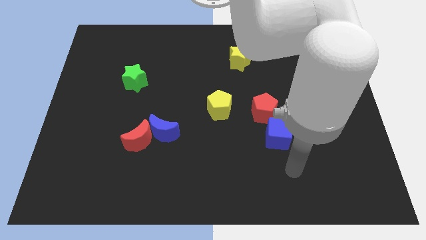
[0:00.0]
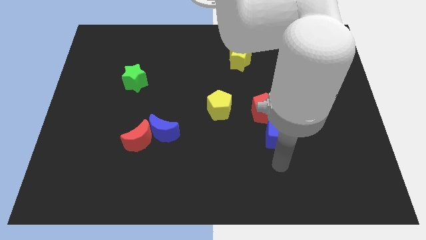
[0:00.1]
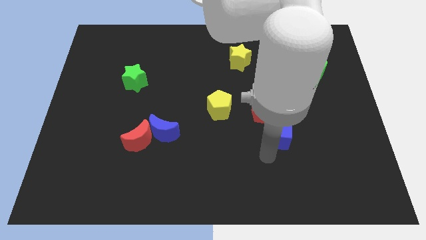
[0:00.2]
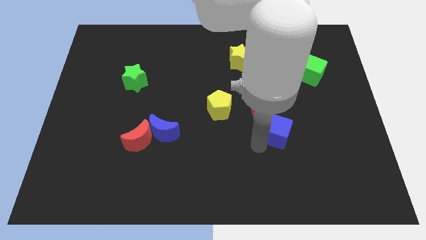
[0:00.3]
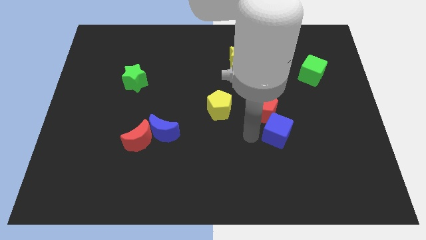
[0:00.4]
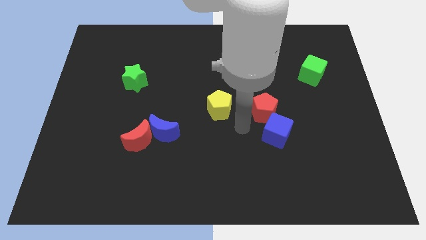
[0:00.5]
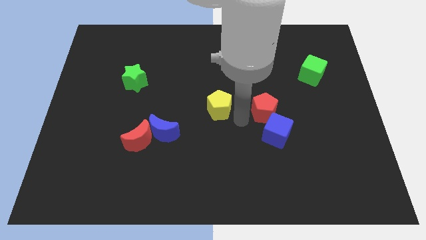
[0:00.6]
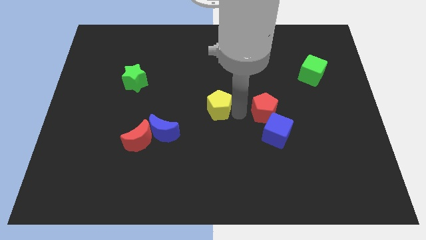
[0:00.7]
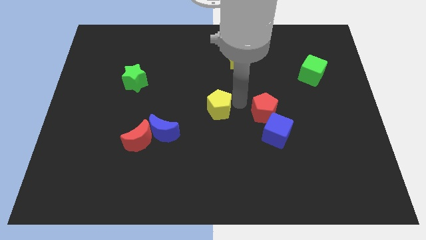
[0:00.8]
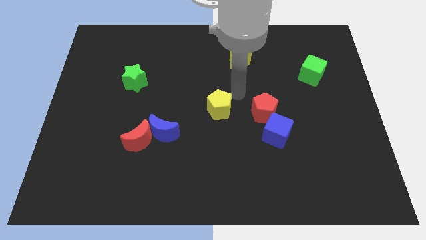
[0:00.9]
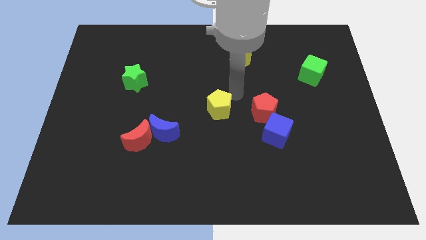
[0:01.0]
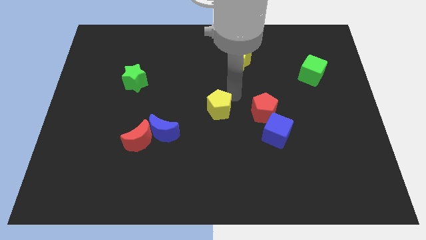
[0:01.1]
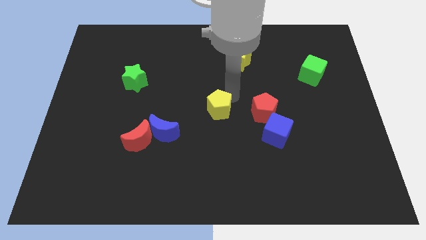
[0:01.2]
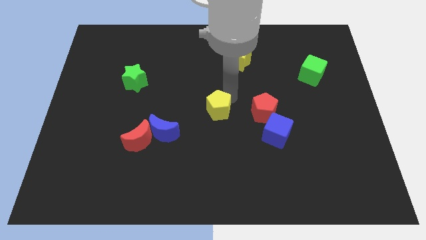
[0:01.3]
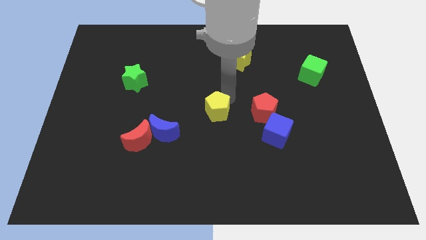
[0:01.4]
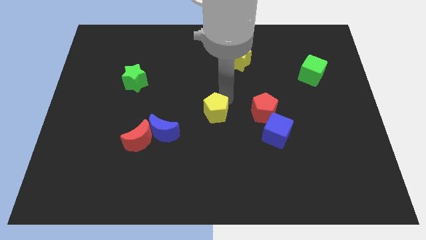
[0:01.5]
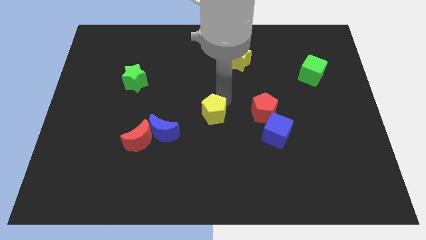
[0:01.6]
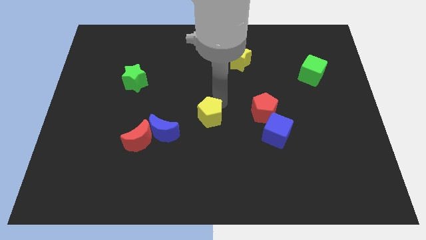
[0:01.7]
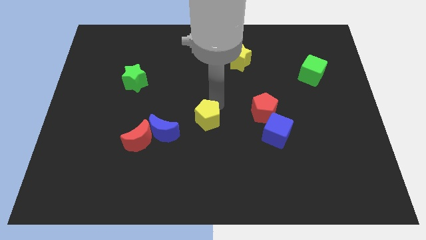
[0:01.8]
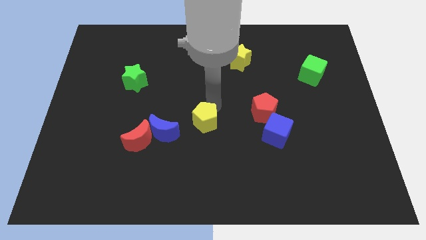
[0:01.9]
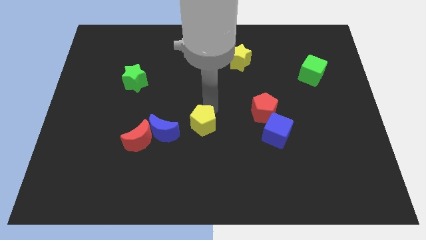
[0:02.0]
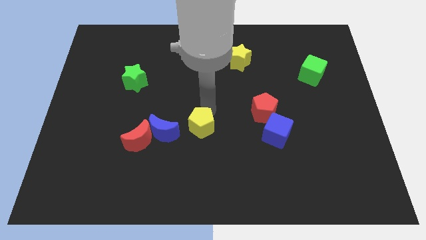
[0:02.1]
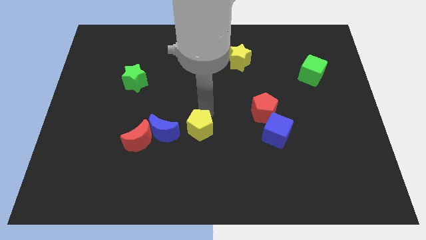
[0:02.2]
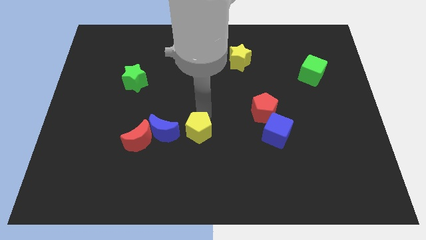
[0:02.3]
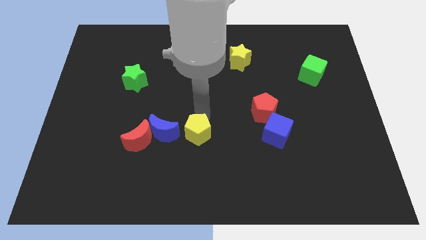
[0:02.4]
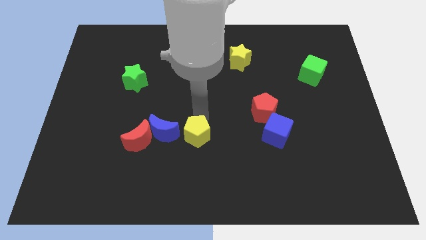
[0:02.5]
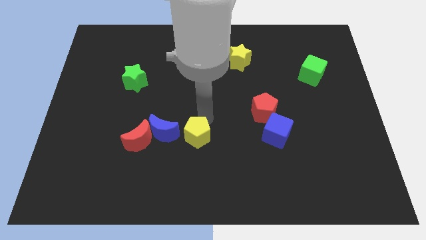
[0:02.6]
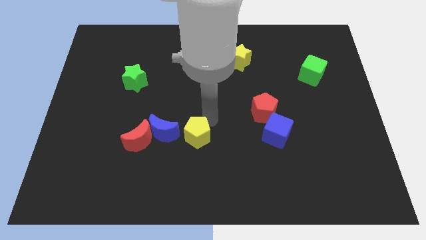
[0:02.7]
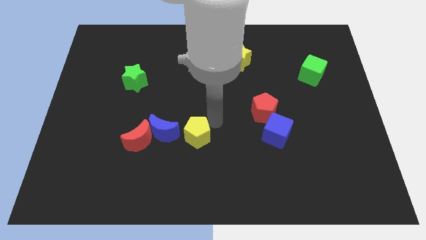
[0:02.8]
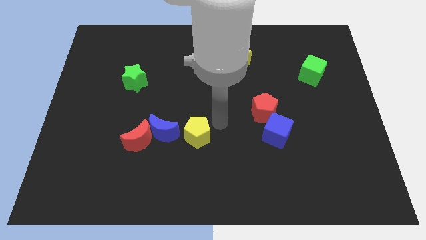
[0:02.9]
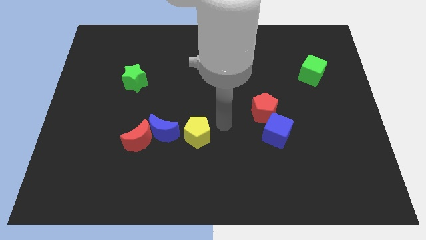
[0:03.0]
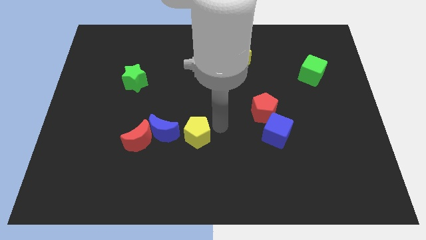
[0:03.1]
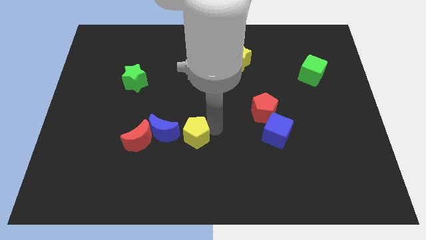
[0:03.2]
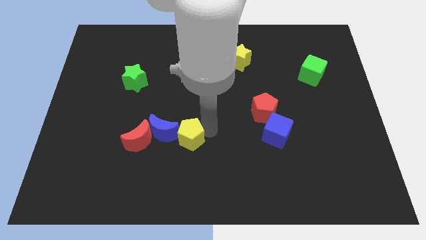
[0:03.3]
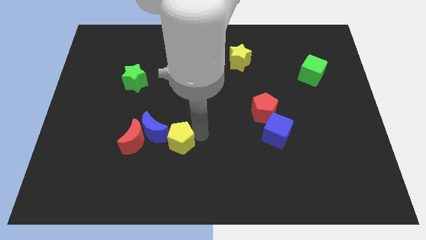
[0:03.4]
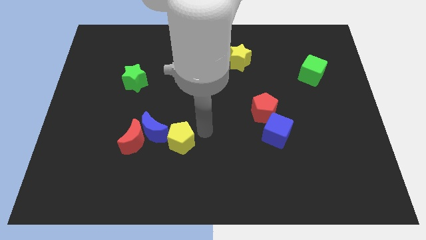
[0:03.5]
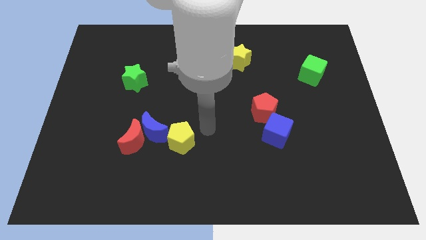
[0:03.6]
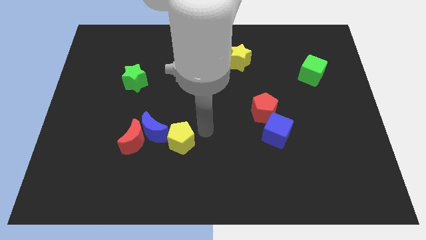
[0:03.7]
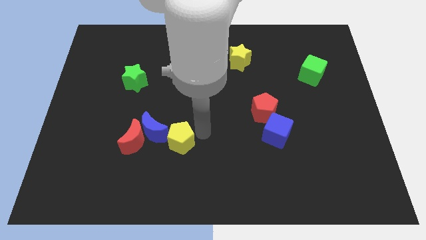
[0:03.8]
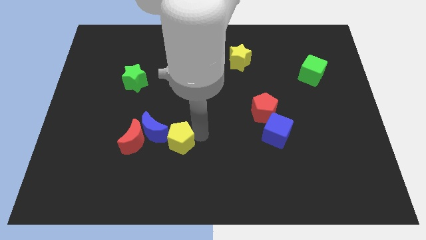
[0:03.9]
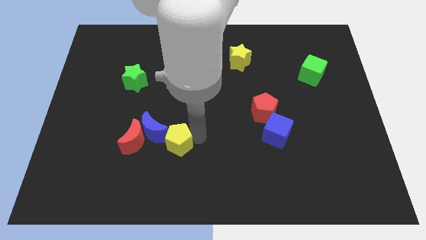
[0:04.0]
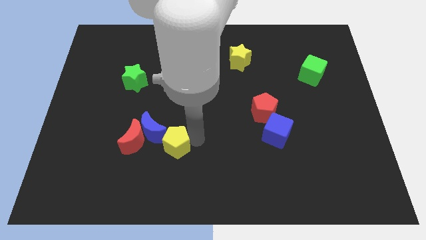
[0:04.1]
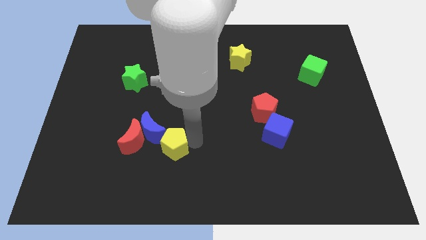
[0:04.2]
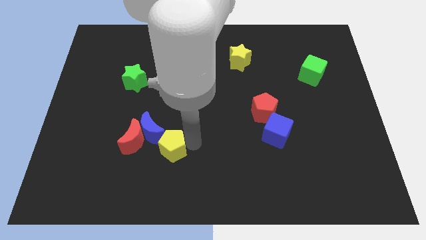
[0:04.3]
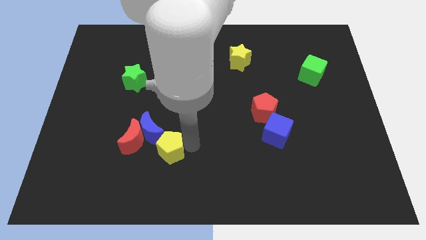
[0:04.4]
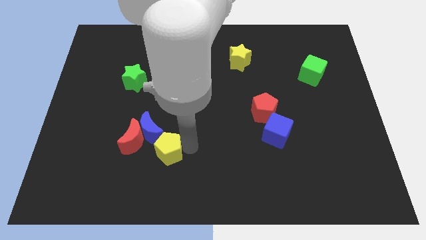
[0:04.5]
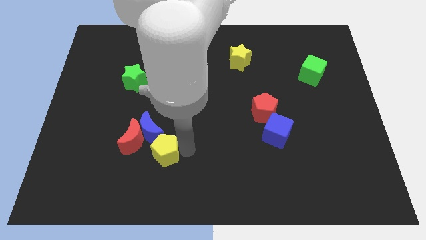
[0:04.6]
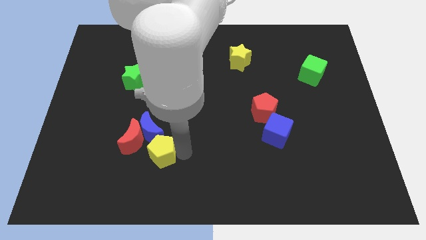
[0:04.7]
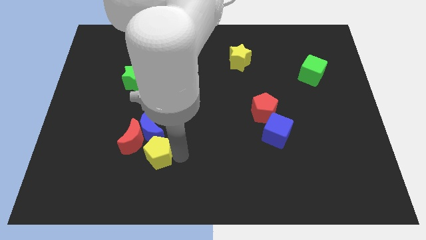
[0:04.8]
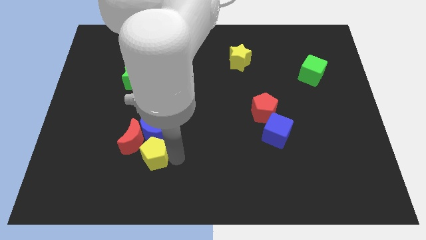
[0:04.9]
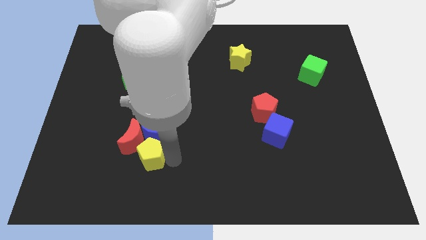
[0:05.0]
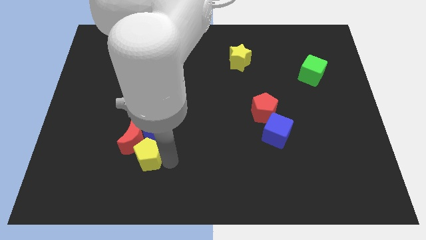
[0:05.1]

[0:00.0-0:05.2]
push the yellow pentagon diagonally down and to the left of the blue moon

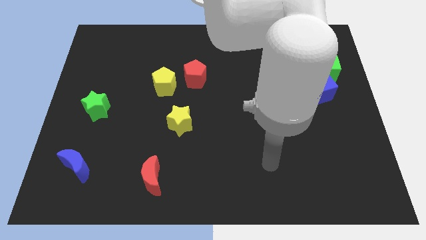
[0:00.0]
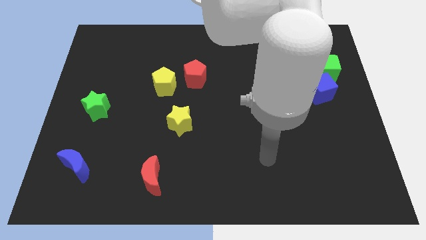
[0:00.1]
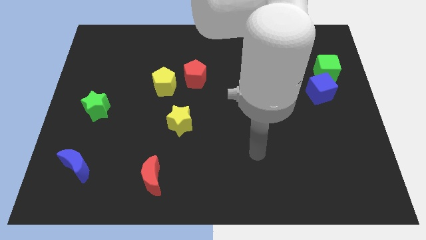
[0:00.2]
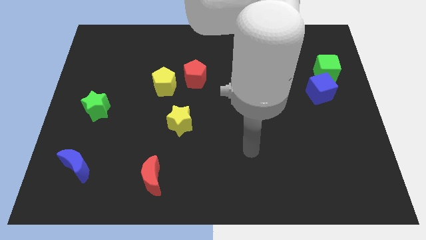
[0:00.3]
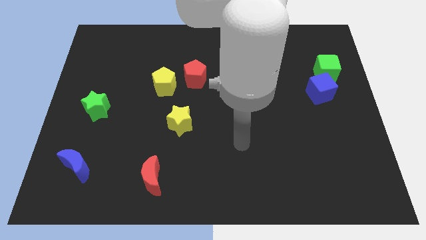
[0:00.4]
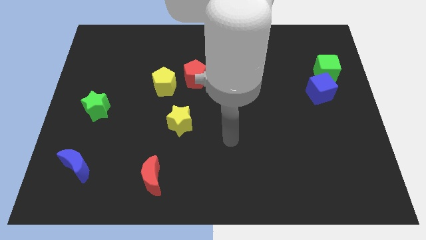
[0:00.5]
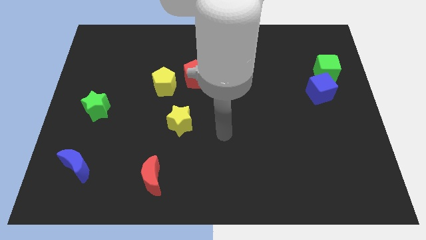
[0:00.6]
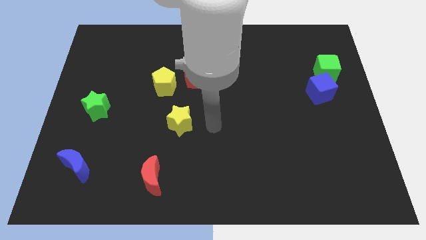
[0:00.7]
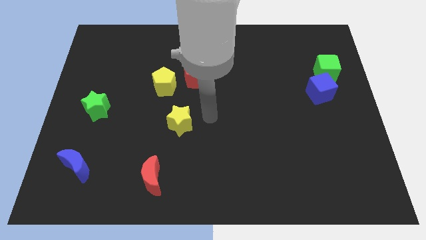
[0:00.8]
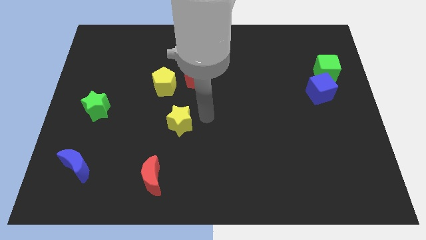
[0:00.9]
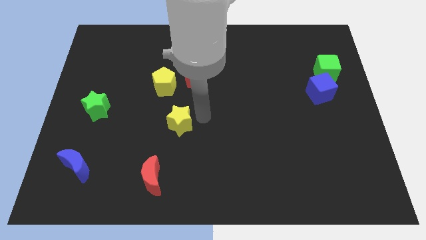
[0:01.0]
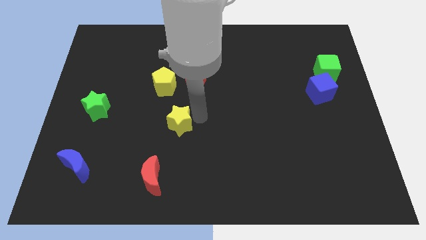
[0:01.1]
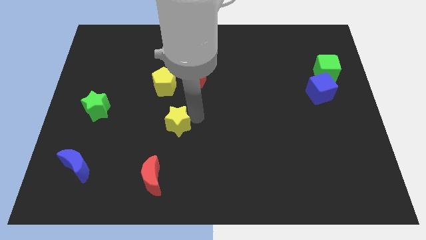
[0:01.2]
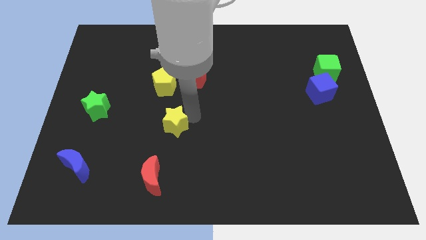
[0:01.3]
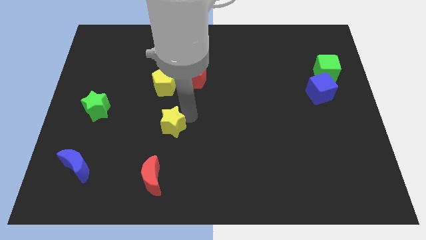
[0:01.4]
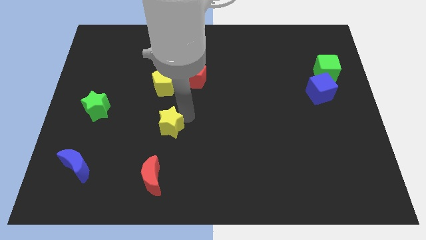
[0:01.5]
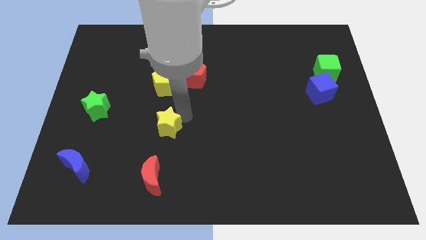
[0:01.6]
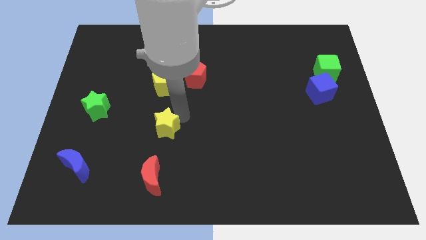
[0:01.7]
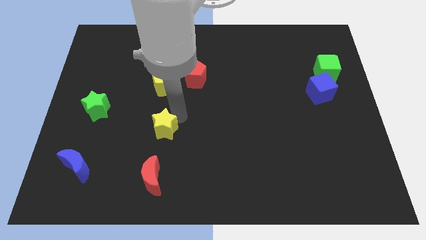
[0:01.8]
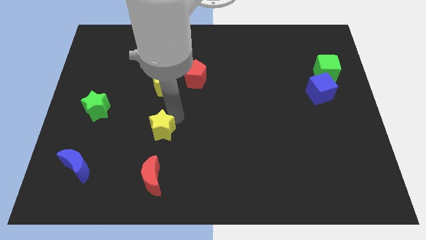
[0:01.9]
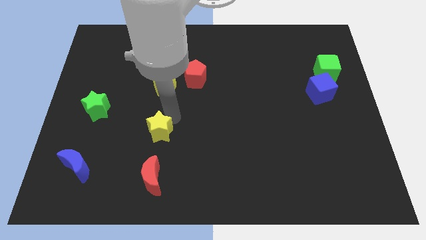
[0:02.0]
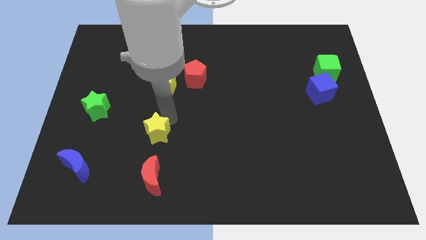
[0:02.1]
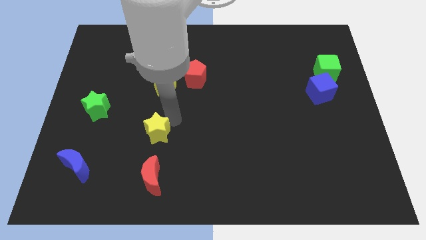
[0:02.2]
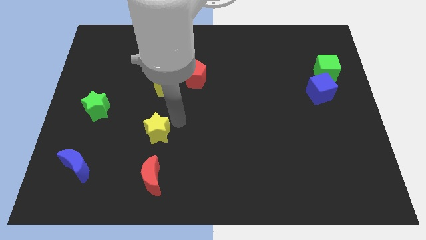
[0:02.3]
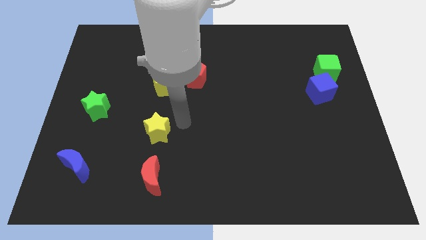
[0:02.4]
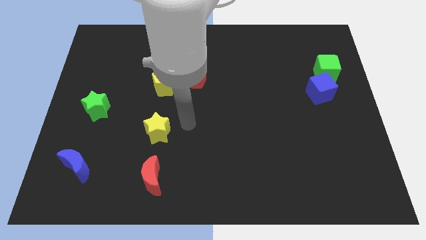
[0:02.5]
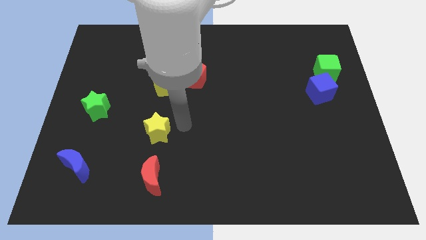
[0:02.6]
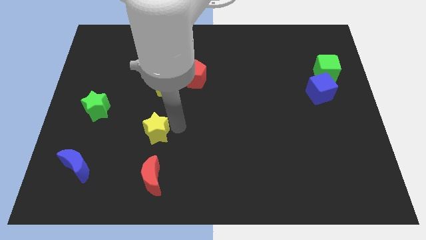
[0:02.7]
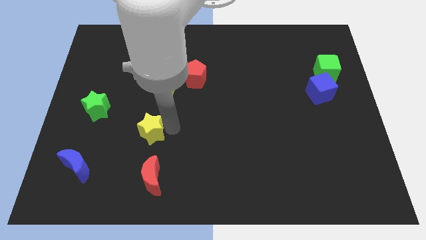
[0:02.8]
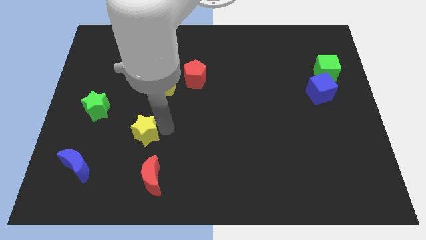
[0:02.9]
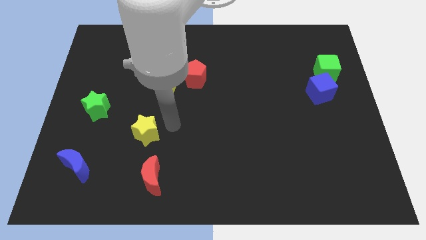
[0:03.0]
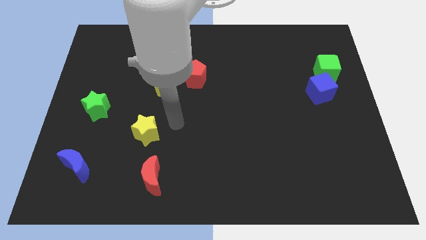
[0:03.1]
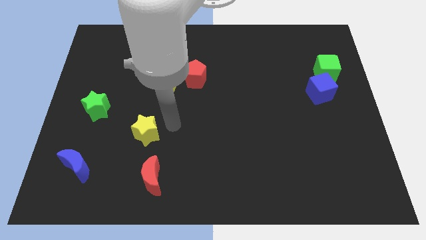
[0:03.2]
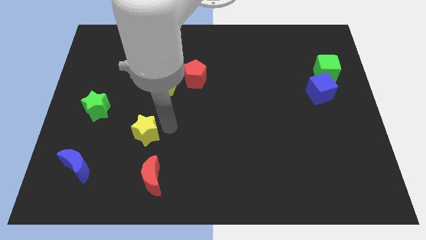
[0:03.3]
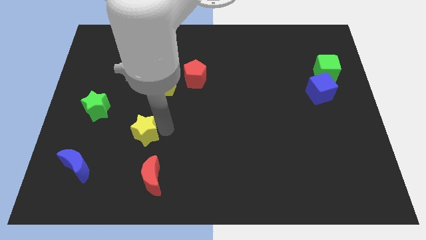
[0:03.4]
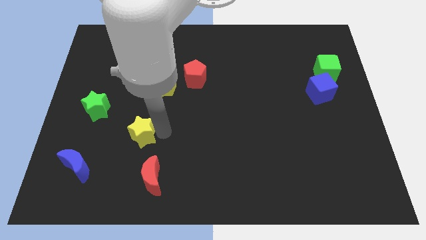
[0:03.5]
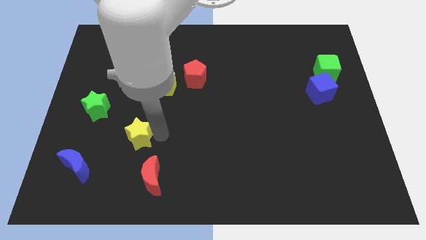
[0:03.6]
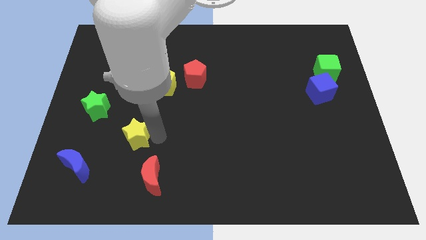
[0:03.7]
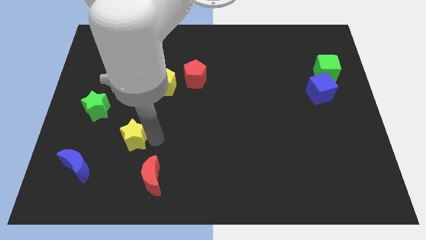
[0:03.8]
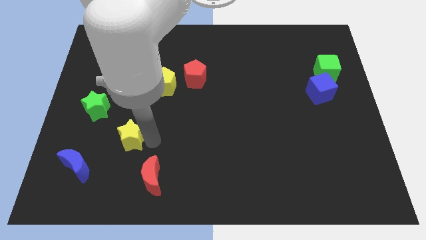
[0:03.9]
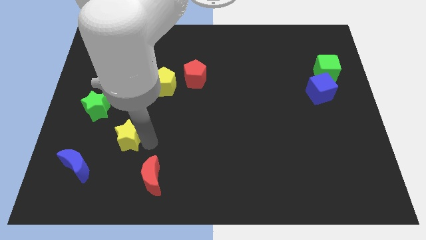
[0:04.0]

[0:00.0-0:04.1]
move the yellow star diagonally up and to the right of the blue moon
